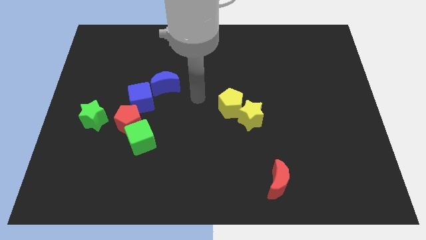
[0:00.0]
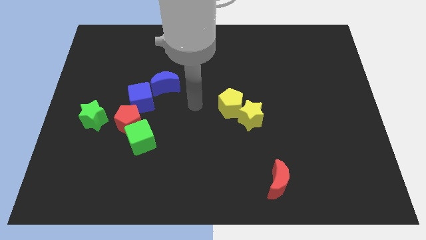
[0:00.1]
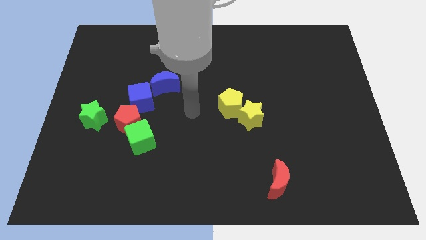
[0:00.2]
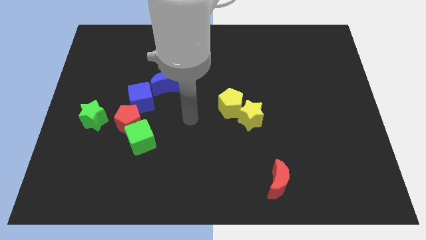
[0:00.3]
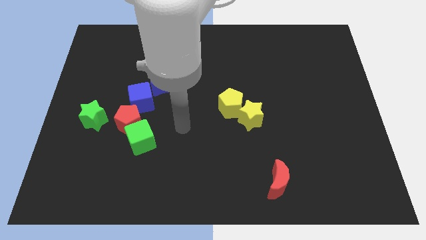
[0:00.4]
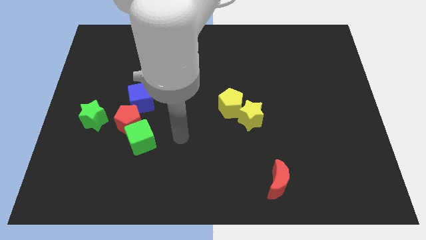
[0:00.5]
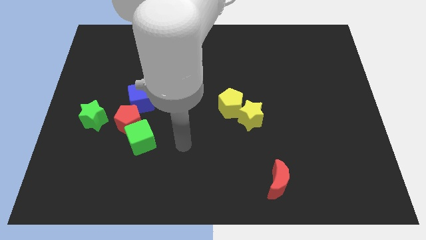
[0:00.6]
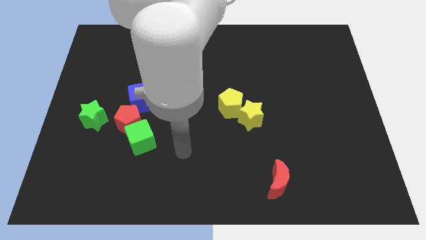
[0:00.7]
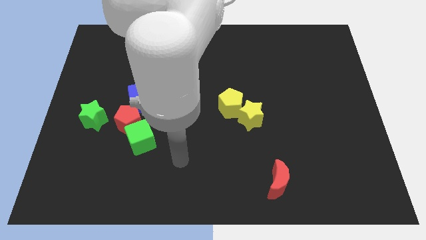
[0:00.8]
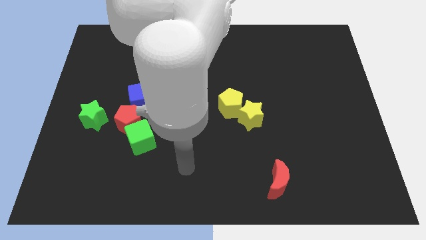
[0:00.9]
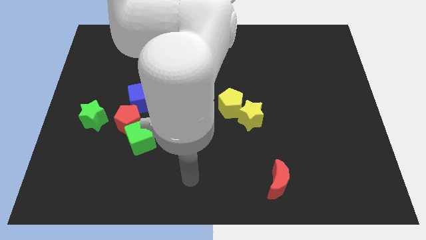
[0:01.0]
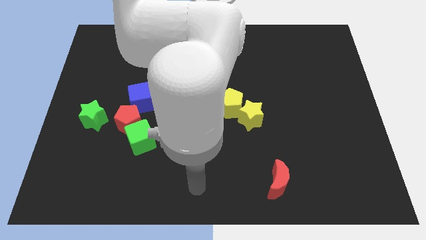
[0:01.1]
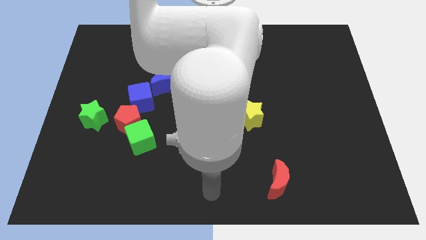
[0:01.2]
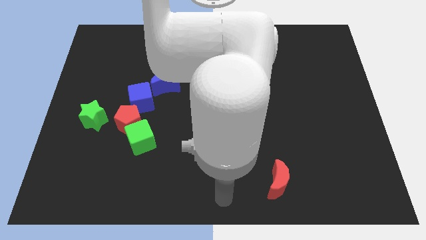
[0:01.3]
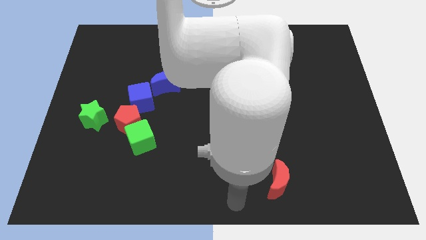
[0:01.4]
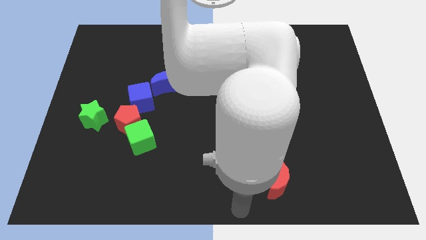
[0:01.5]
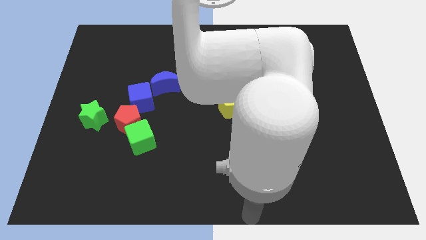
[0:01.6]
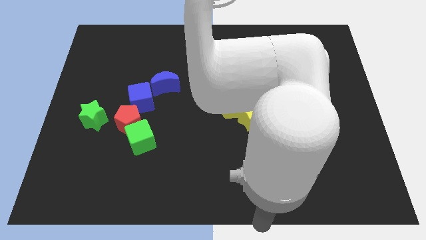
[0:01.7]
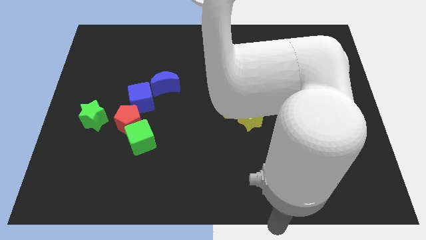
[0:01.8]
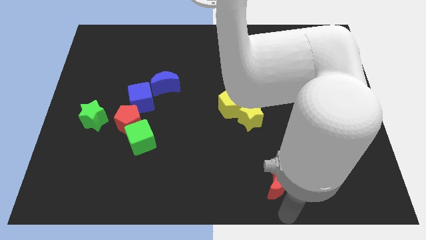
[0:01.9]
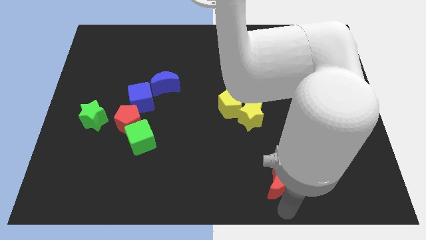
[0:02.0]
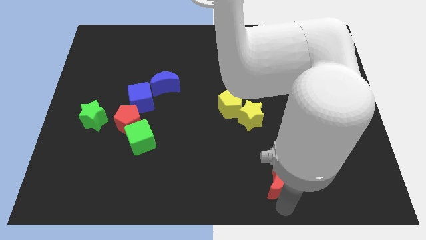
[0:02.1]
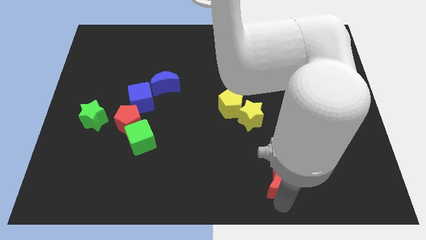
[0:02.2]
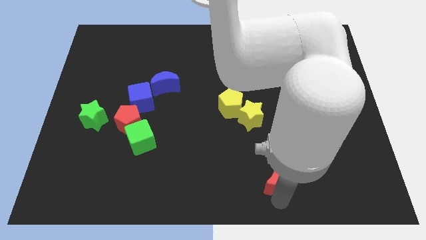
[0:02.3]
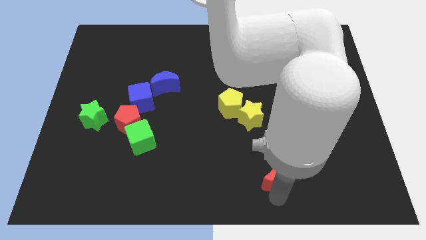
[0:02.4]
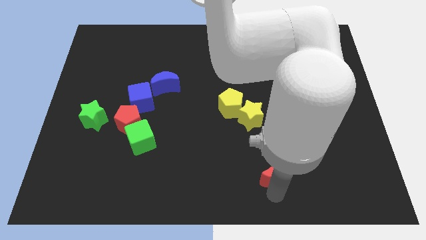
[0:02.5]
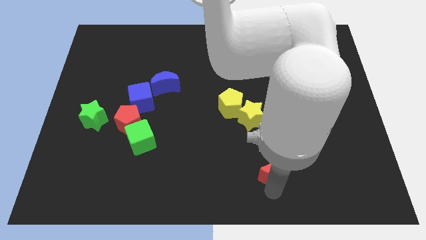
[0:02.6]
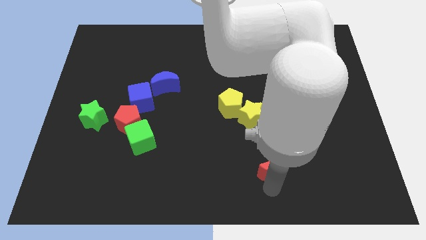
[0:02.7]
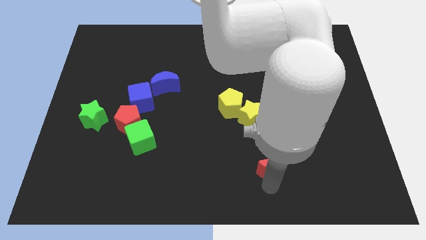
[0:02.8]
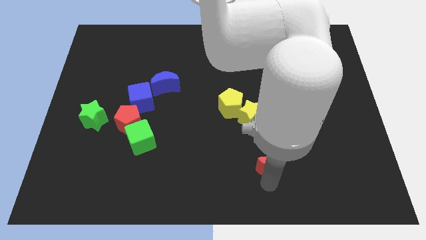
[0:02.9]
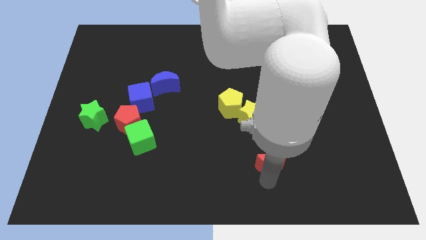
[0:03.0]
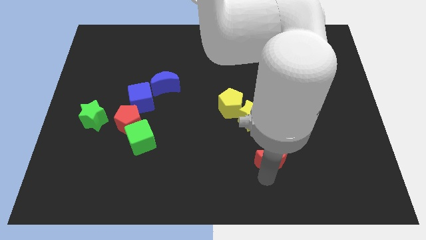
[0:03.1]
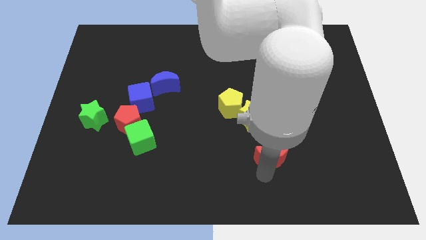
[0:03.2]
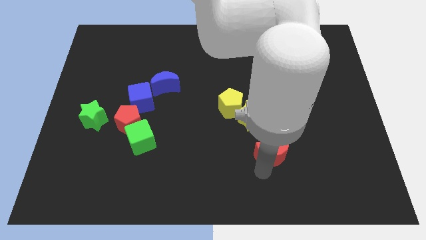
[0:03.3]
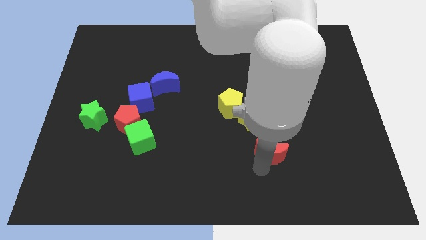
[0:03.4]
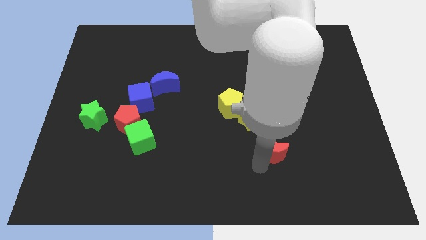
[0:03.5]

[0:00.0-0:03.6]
slightly slide the red moon upwards

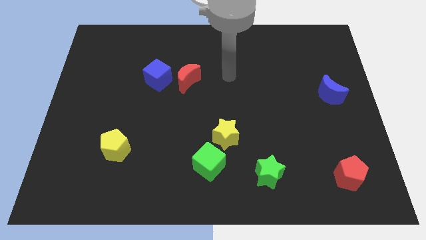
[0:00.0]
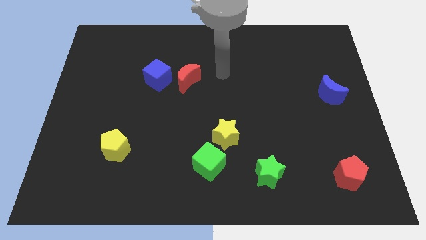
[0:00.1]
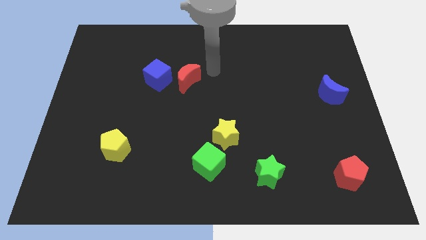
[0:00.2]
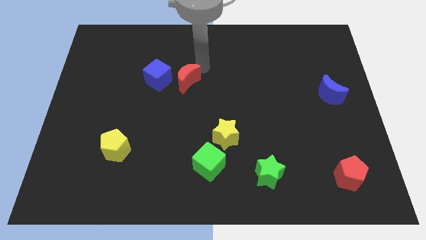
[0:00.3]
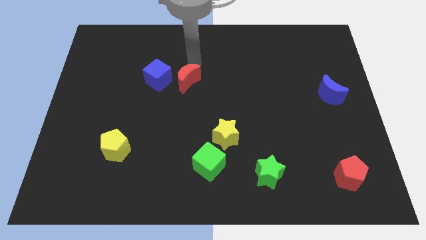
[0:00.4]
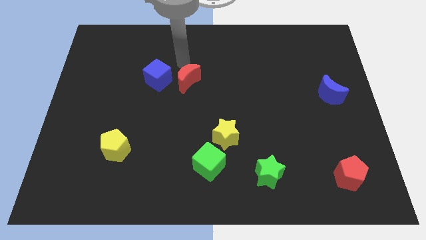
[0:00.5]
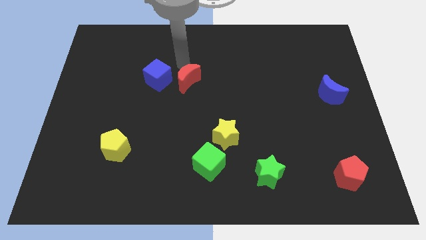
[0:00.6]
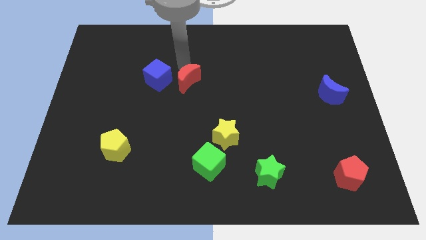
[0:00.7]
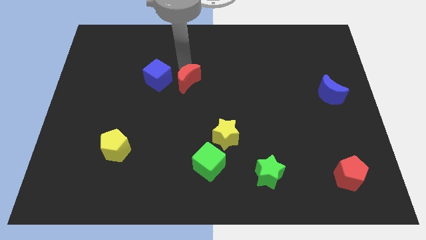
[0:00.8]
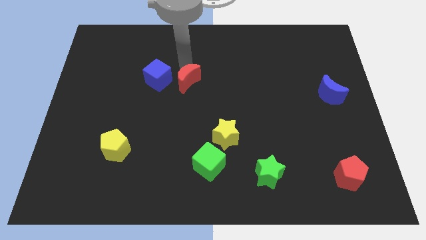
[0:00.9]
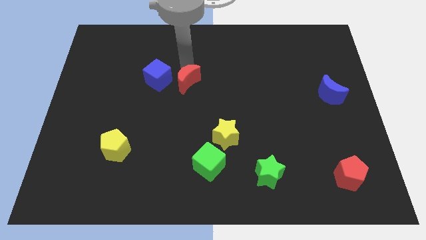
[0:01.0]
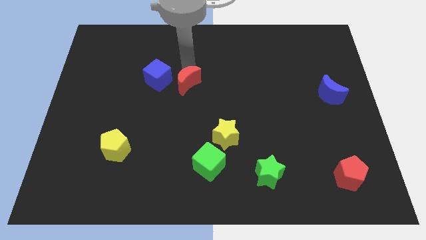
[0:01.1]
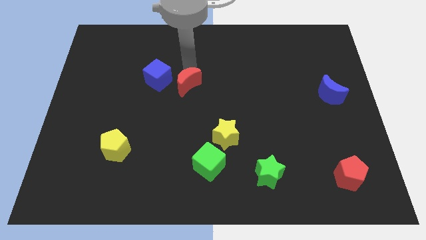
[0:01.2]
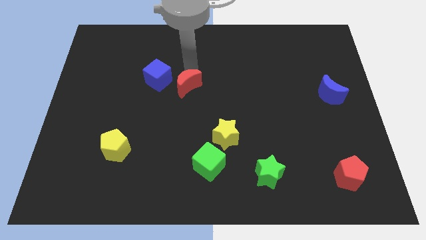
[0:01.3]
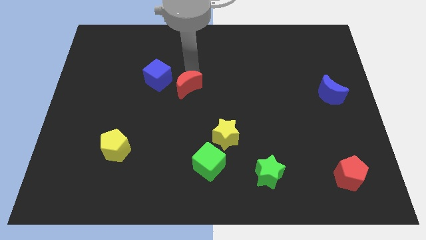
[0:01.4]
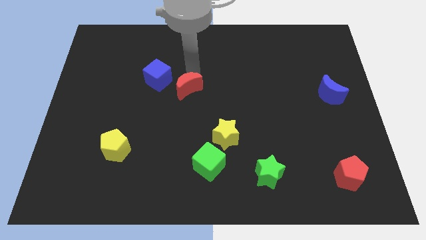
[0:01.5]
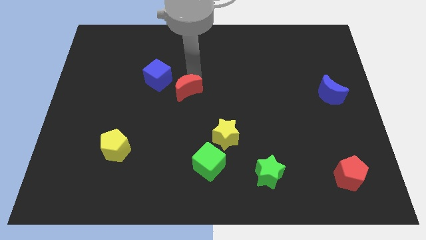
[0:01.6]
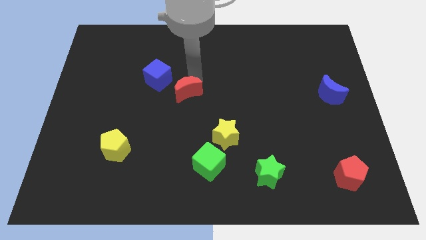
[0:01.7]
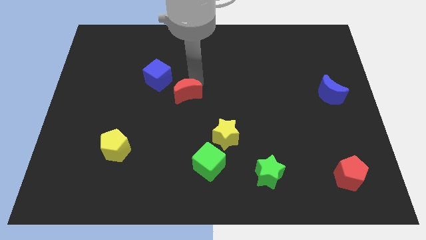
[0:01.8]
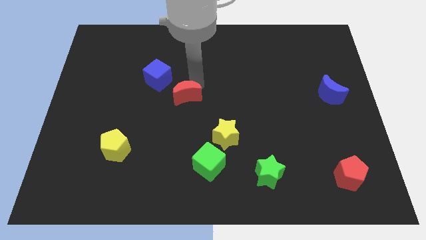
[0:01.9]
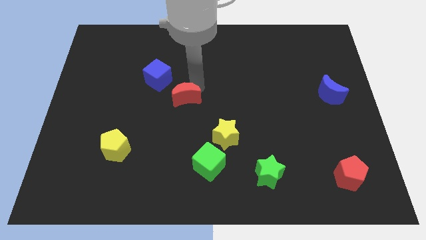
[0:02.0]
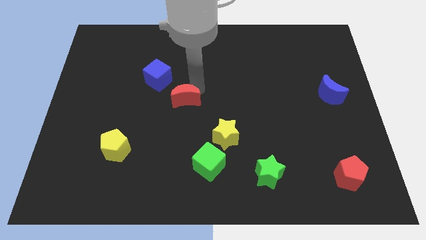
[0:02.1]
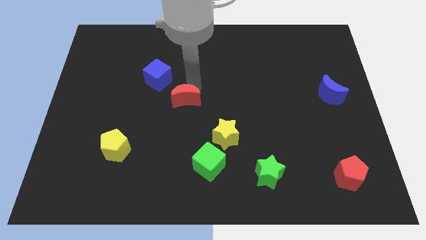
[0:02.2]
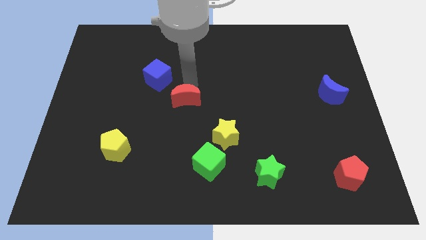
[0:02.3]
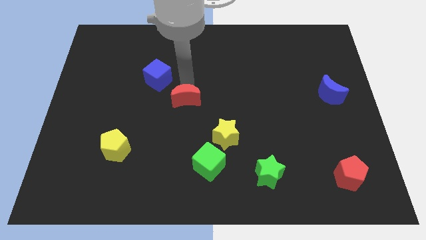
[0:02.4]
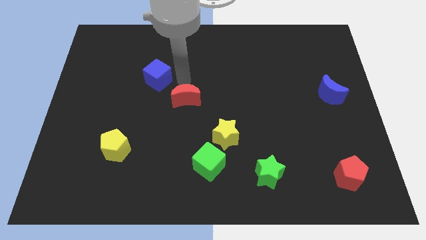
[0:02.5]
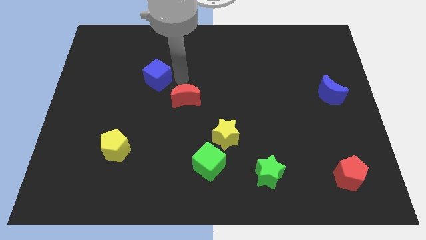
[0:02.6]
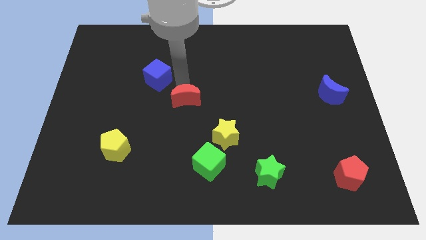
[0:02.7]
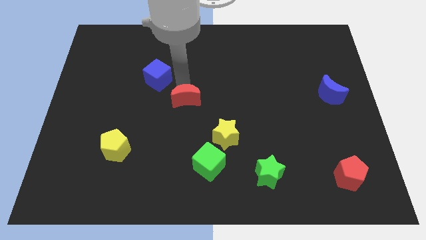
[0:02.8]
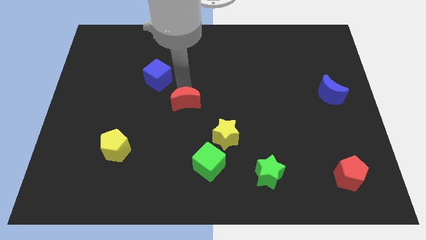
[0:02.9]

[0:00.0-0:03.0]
slightly slide the red moon downwards

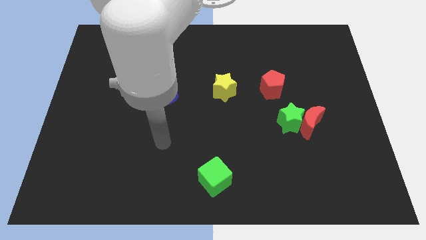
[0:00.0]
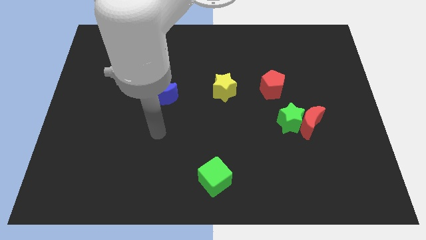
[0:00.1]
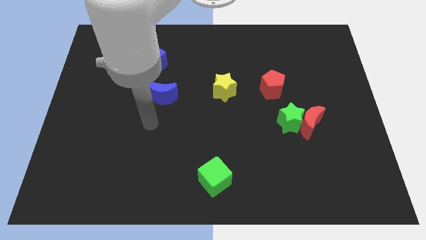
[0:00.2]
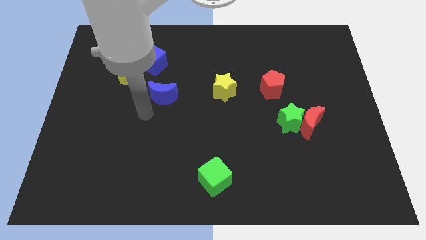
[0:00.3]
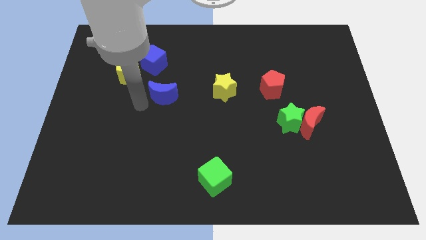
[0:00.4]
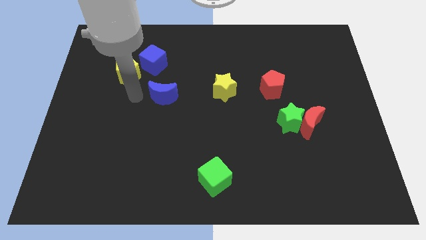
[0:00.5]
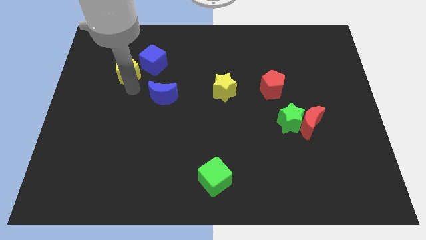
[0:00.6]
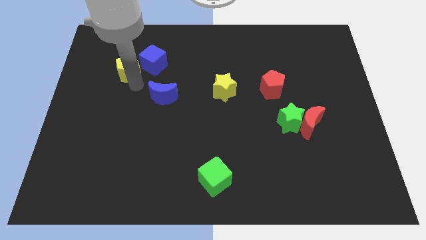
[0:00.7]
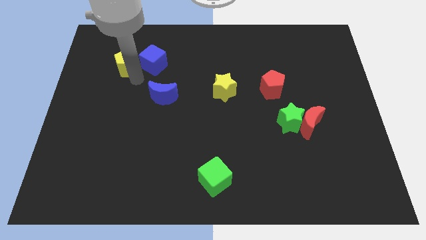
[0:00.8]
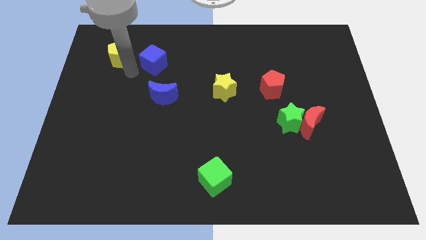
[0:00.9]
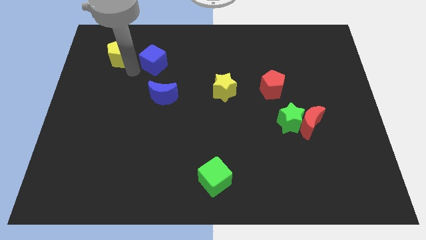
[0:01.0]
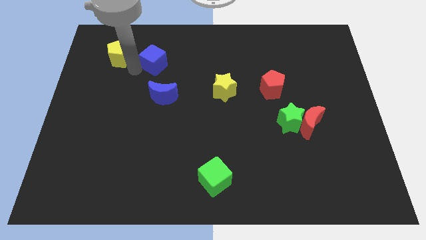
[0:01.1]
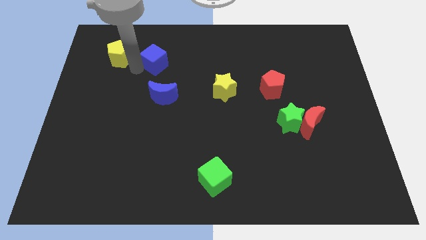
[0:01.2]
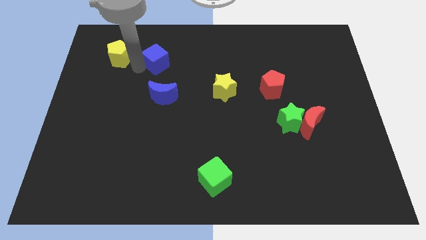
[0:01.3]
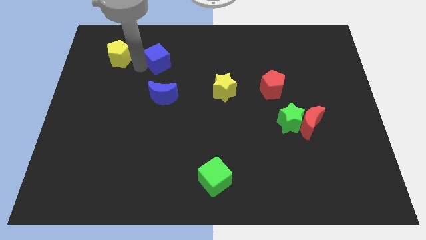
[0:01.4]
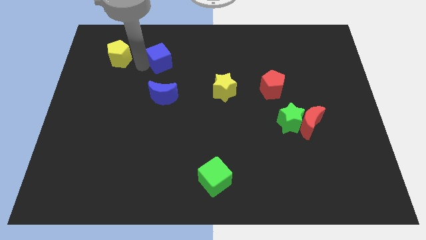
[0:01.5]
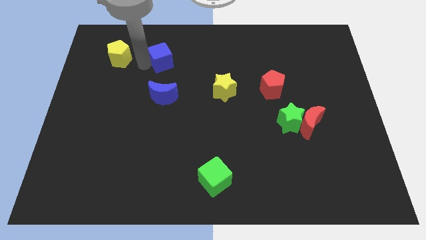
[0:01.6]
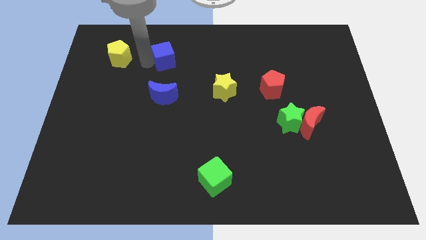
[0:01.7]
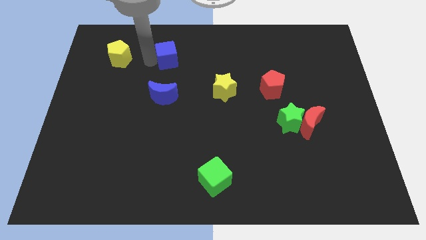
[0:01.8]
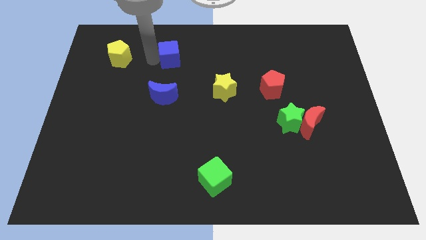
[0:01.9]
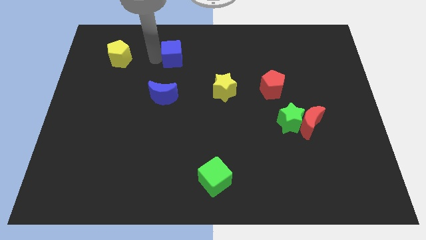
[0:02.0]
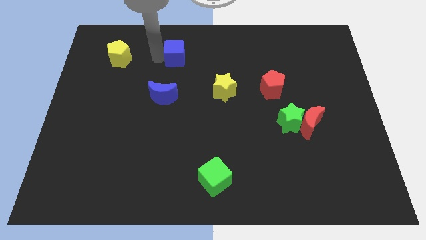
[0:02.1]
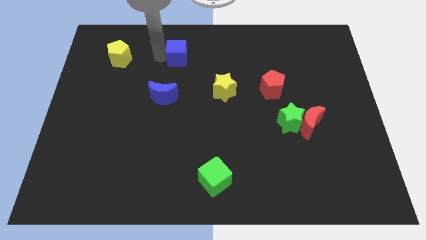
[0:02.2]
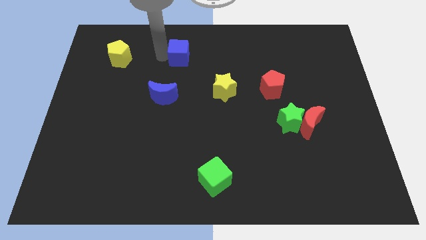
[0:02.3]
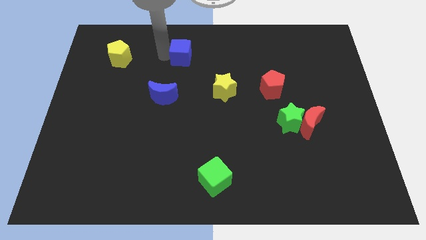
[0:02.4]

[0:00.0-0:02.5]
move the blue cube to the right a little
